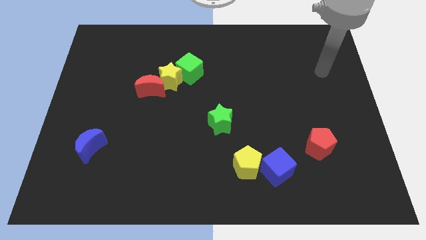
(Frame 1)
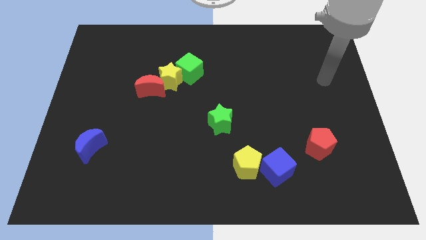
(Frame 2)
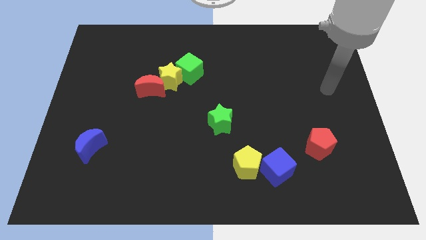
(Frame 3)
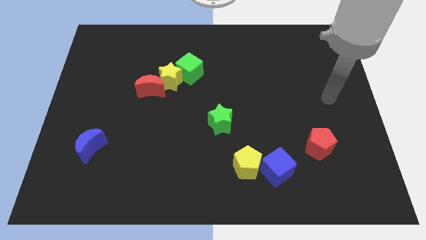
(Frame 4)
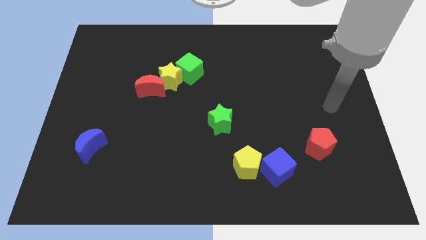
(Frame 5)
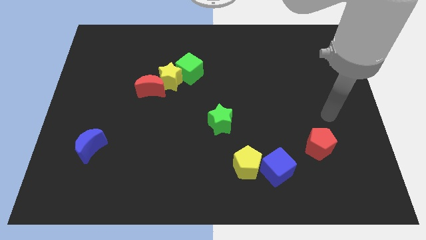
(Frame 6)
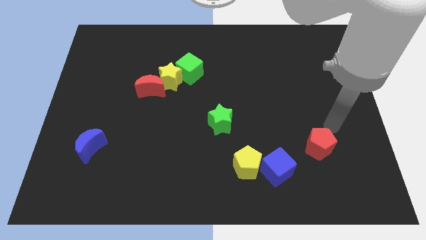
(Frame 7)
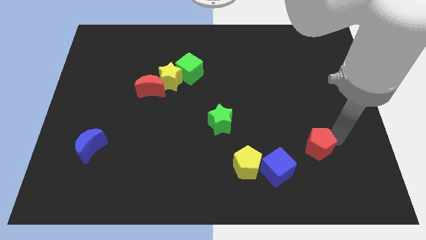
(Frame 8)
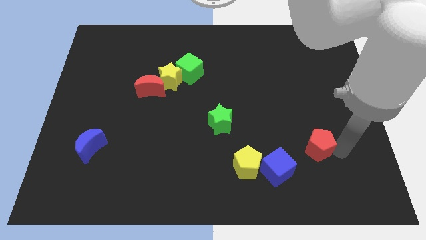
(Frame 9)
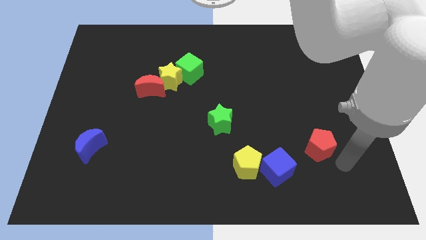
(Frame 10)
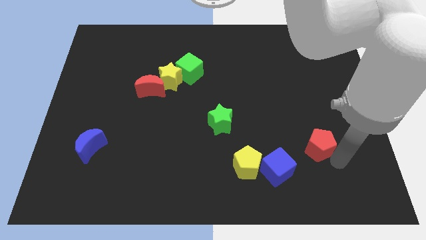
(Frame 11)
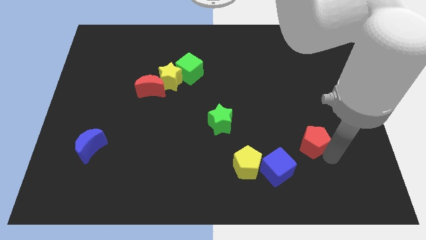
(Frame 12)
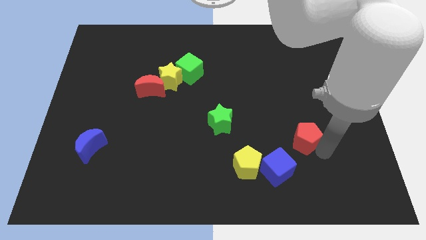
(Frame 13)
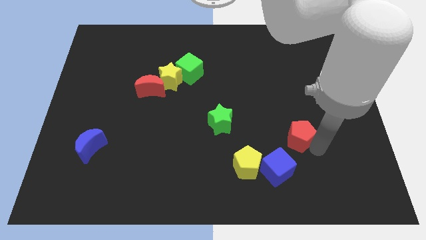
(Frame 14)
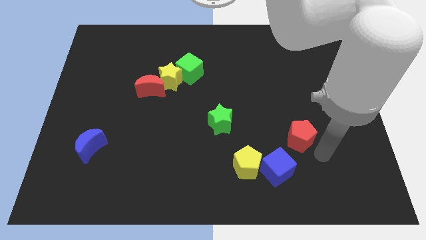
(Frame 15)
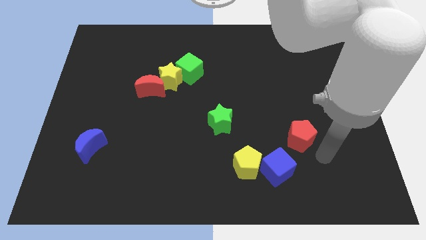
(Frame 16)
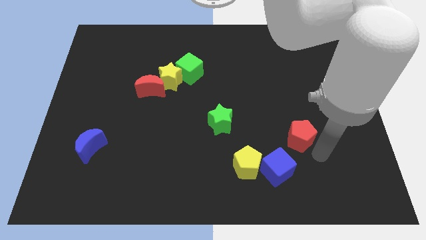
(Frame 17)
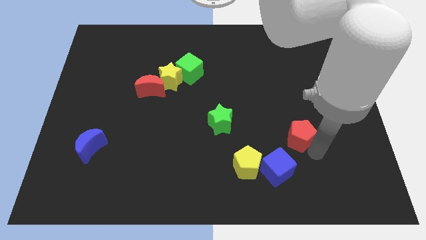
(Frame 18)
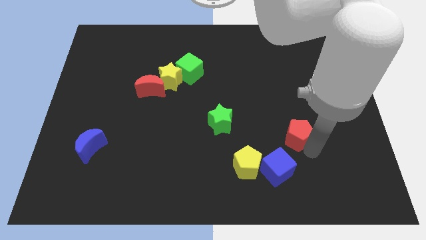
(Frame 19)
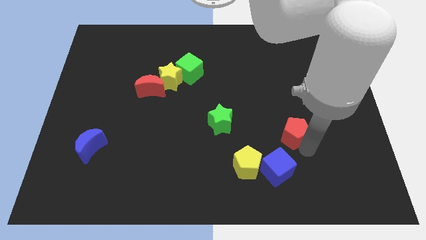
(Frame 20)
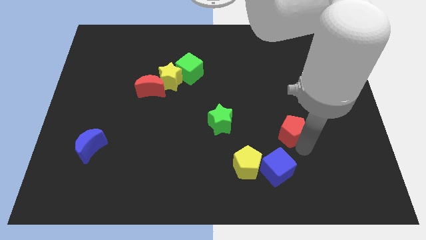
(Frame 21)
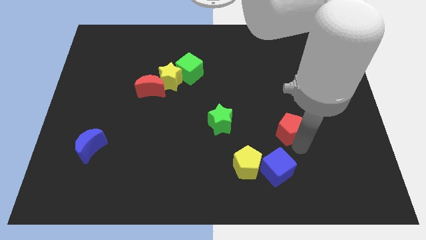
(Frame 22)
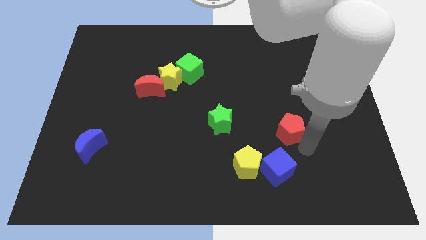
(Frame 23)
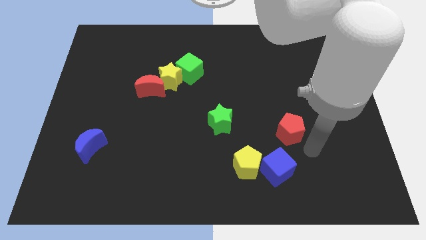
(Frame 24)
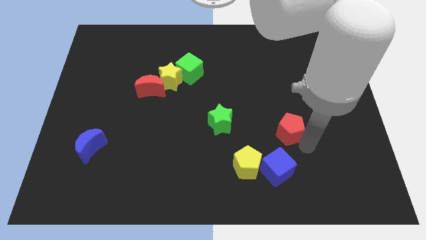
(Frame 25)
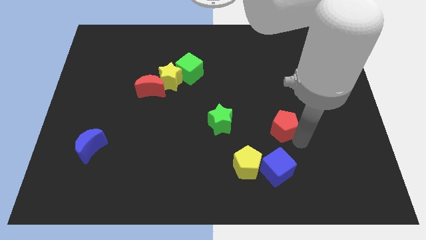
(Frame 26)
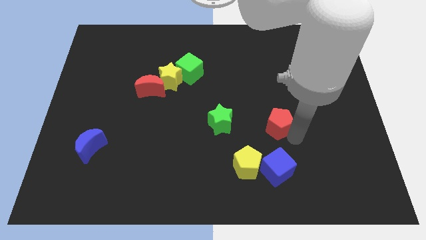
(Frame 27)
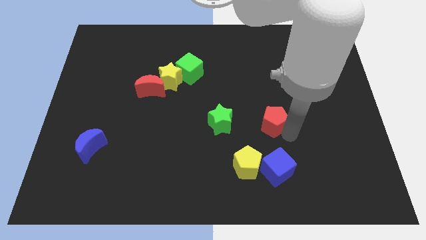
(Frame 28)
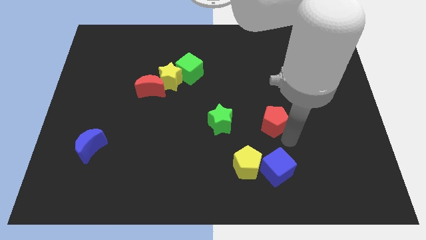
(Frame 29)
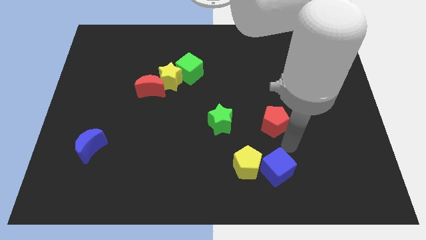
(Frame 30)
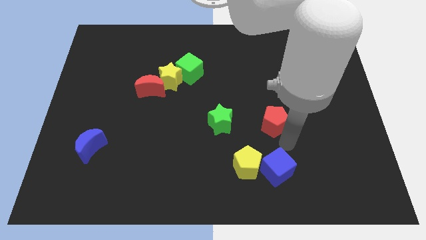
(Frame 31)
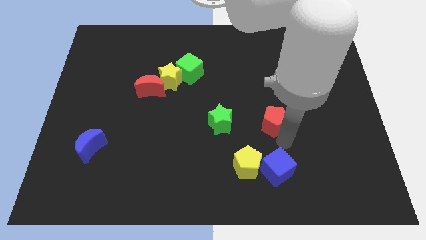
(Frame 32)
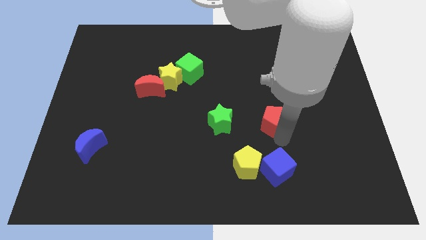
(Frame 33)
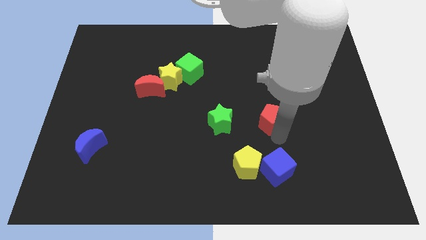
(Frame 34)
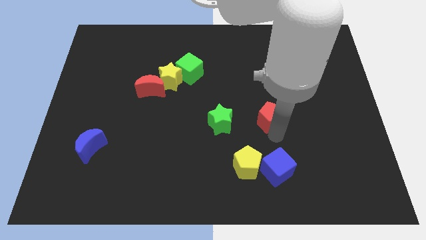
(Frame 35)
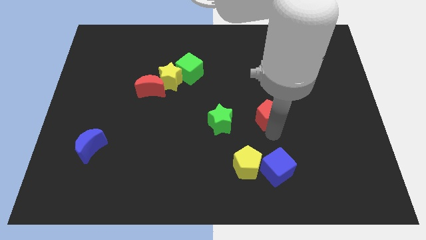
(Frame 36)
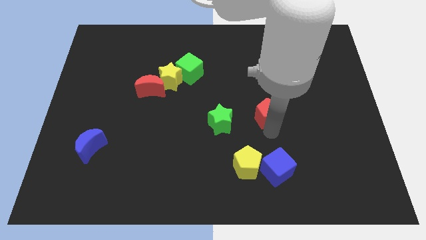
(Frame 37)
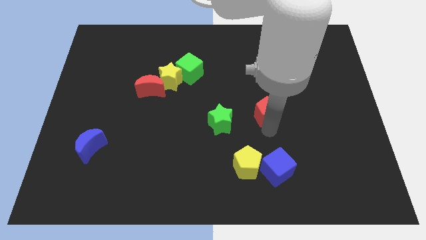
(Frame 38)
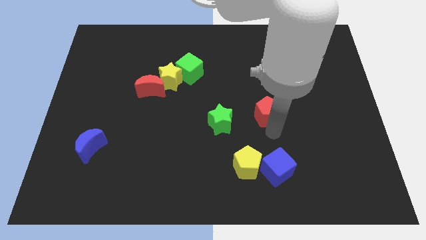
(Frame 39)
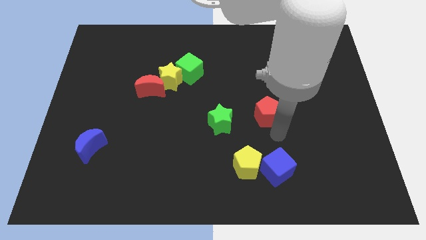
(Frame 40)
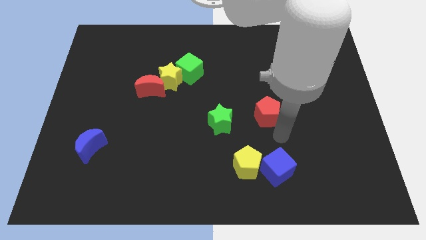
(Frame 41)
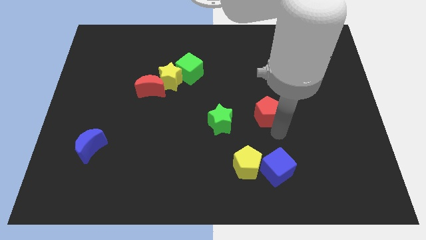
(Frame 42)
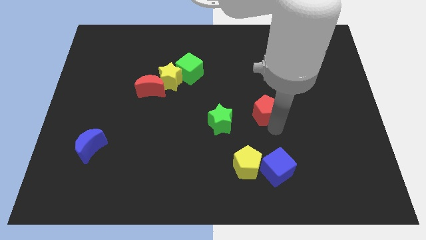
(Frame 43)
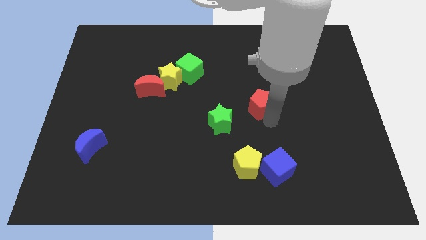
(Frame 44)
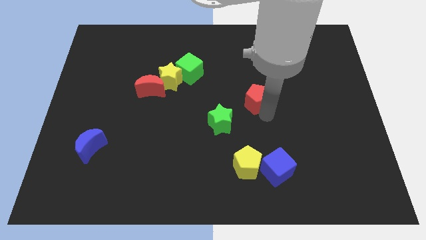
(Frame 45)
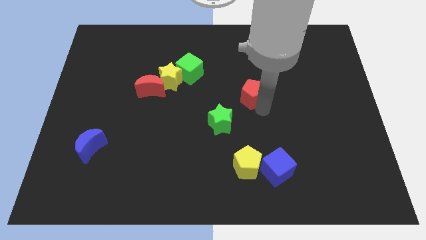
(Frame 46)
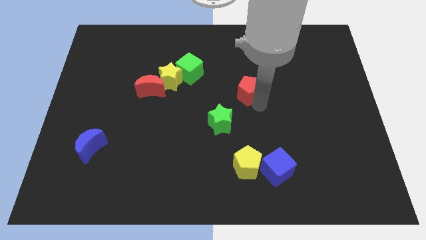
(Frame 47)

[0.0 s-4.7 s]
move the red pentagon up and left

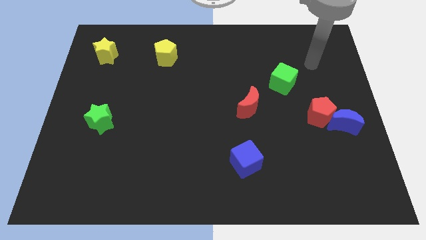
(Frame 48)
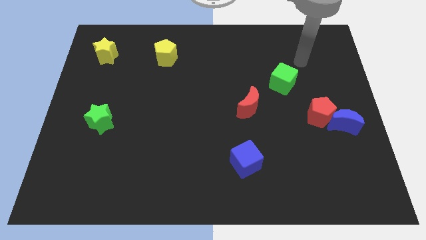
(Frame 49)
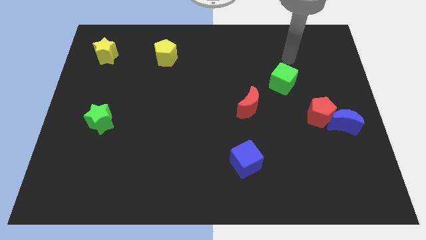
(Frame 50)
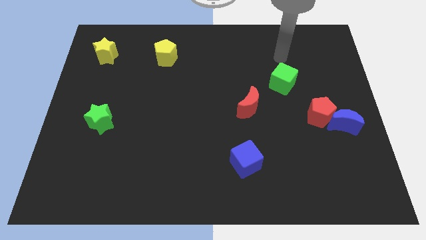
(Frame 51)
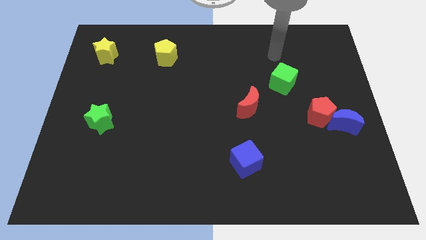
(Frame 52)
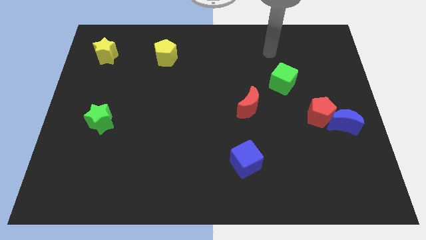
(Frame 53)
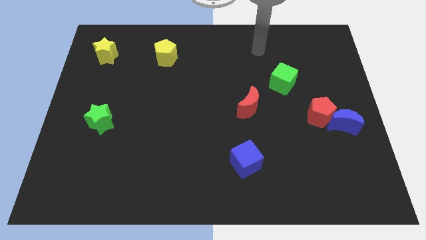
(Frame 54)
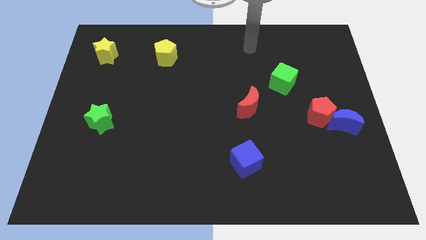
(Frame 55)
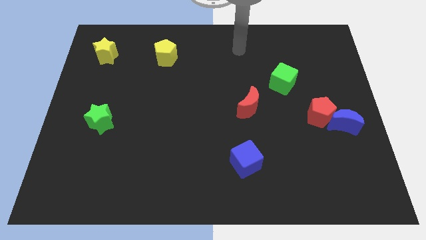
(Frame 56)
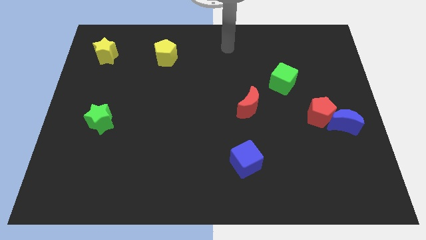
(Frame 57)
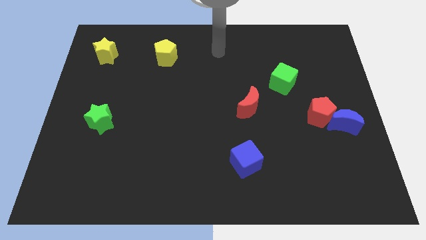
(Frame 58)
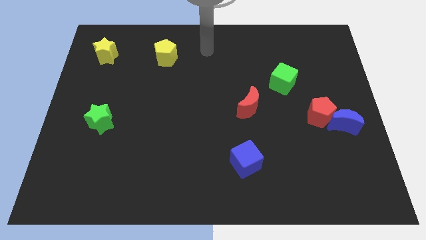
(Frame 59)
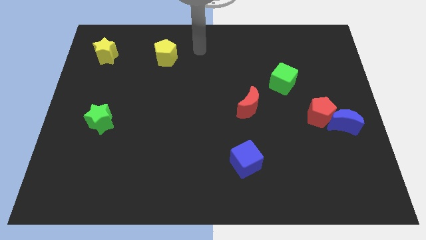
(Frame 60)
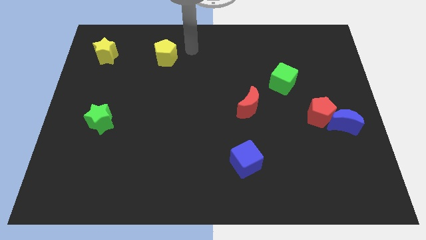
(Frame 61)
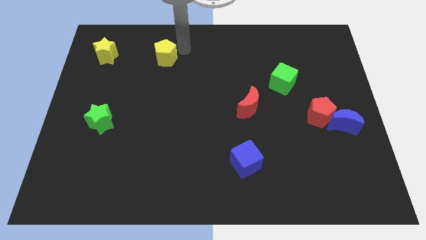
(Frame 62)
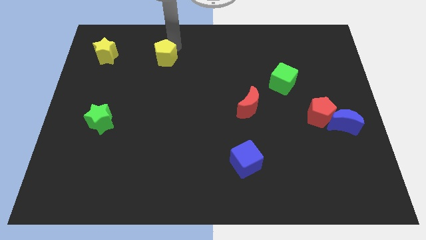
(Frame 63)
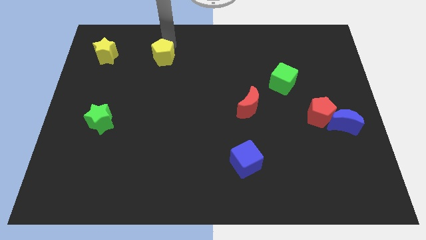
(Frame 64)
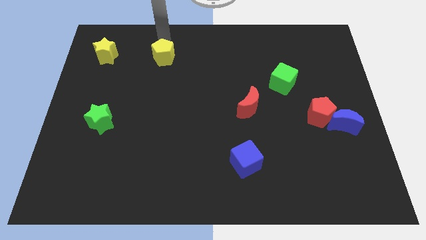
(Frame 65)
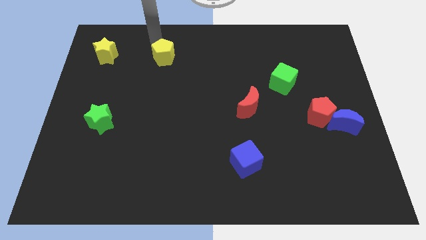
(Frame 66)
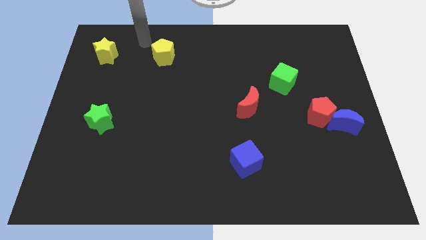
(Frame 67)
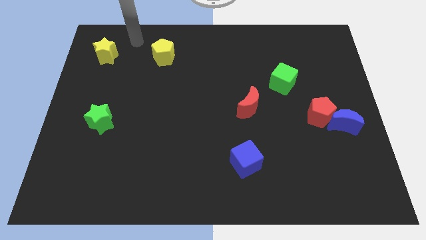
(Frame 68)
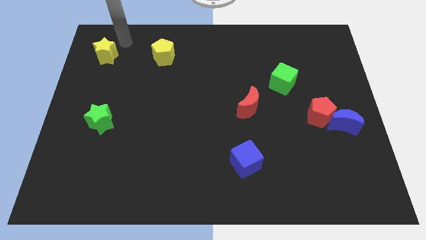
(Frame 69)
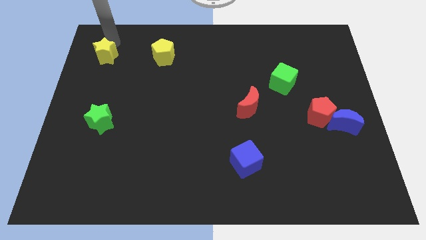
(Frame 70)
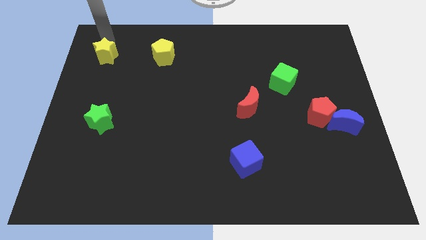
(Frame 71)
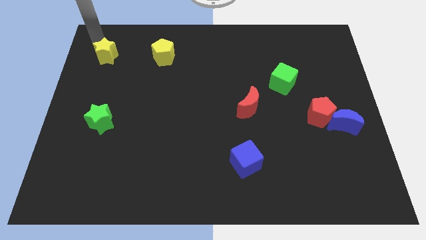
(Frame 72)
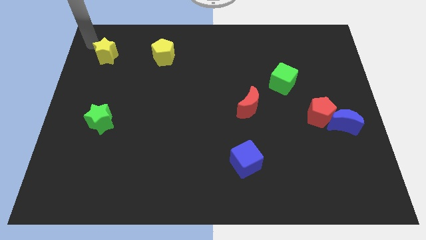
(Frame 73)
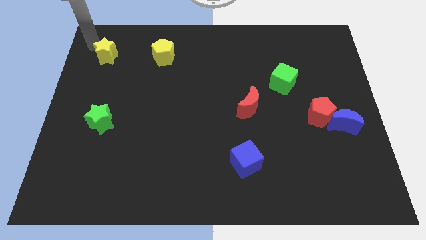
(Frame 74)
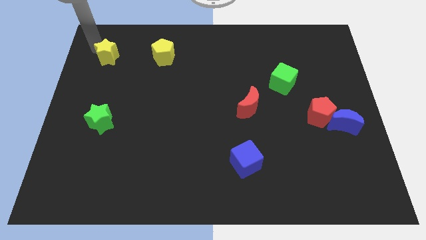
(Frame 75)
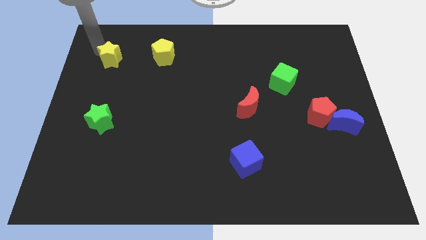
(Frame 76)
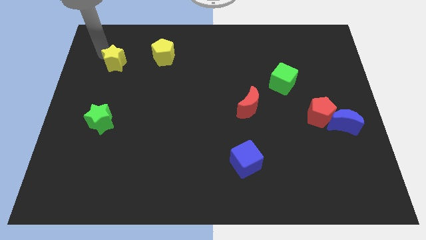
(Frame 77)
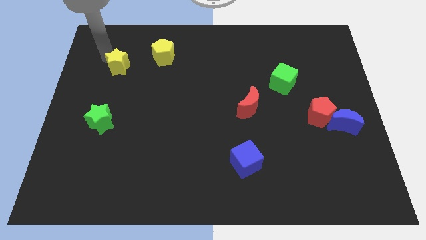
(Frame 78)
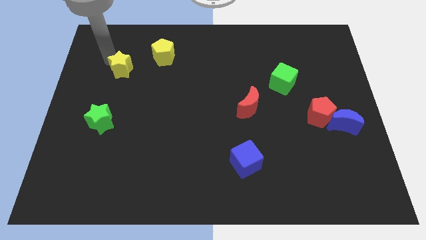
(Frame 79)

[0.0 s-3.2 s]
slightly slide the yellow star down and right diagonally
